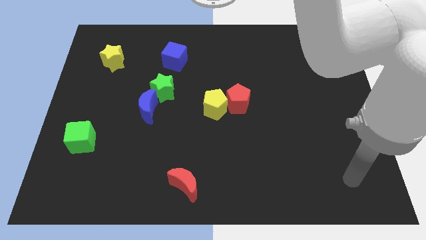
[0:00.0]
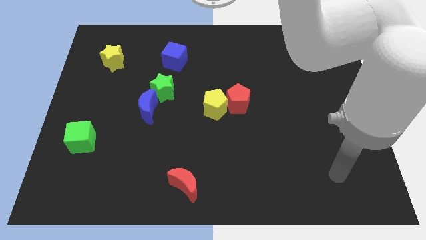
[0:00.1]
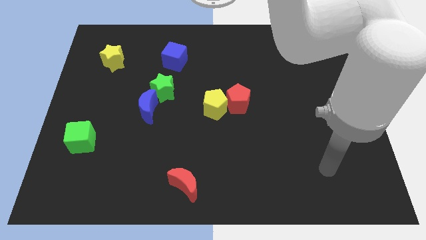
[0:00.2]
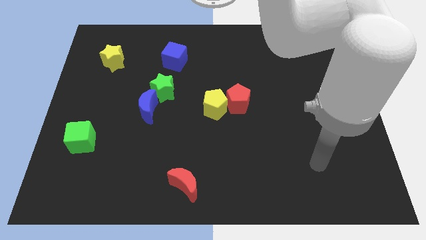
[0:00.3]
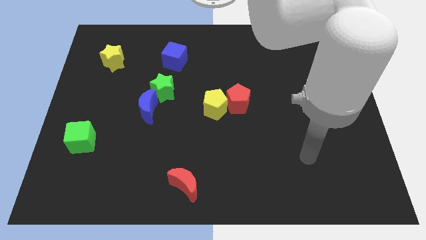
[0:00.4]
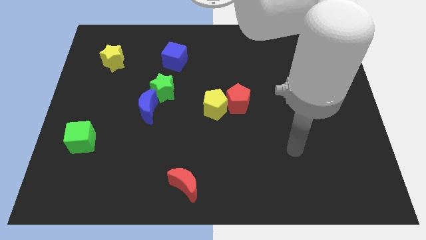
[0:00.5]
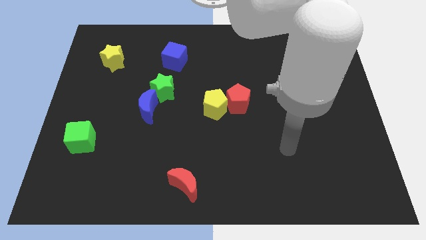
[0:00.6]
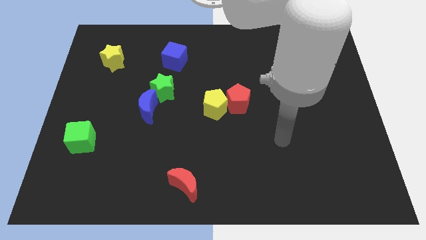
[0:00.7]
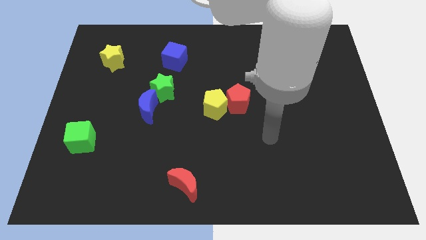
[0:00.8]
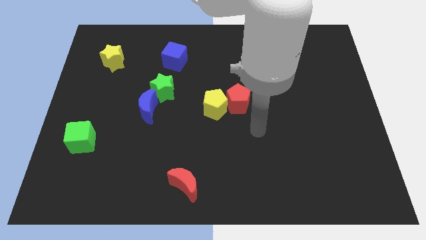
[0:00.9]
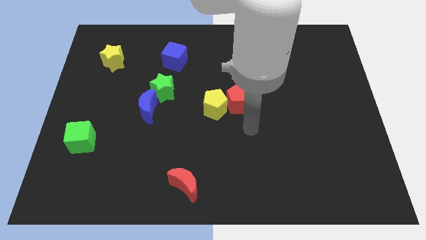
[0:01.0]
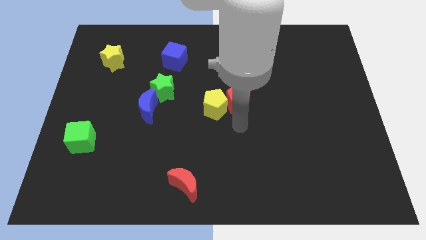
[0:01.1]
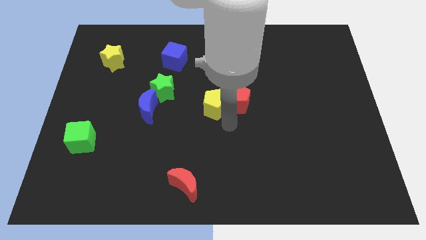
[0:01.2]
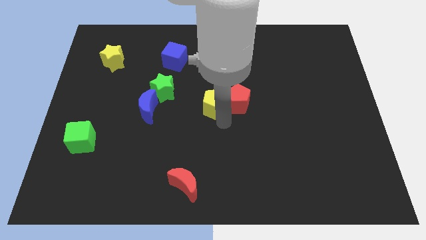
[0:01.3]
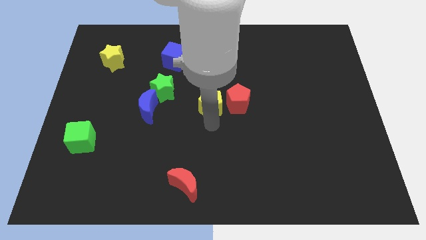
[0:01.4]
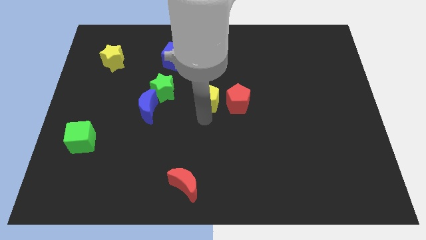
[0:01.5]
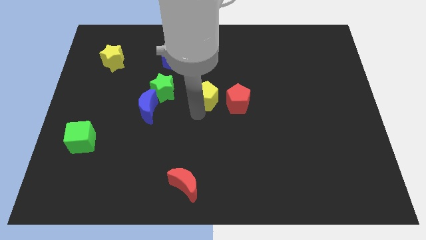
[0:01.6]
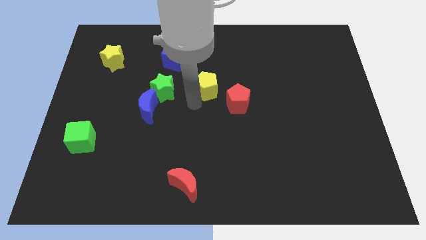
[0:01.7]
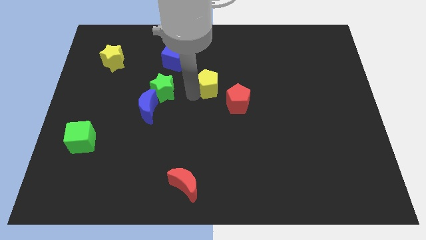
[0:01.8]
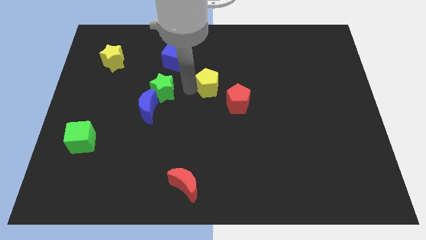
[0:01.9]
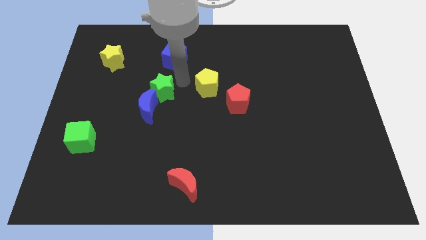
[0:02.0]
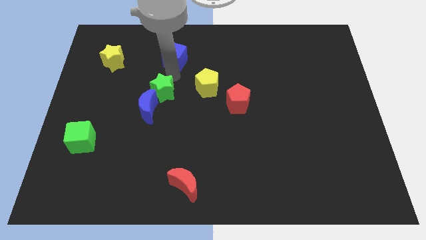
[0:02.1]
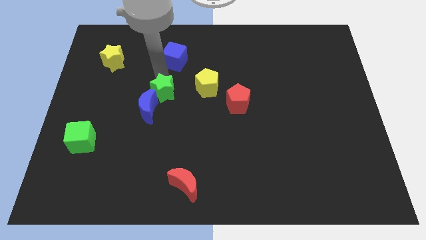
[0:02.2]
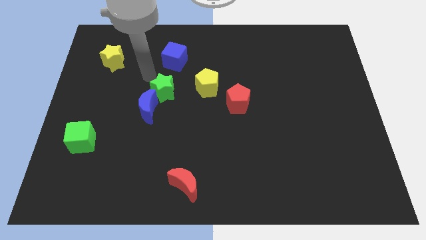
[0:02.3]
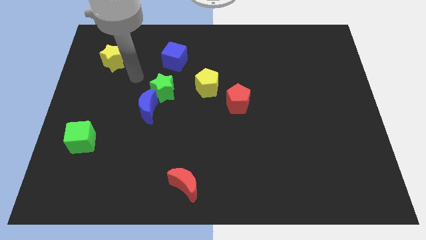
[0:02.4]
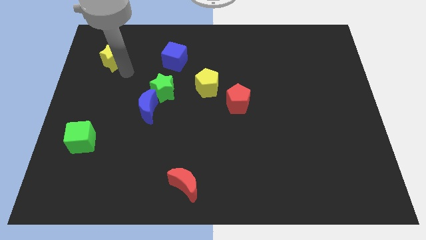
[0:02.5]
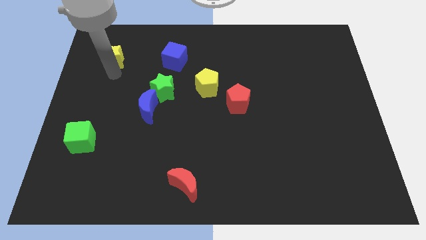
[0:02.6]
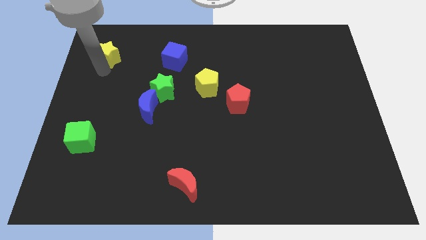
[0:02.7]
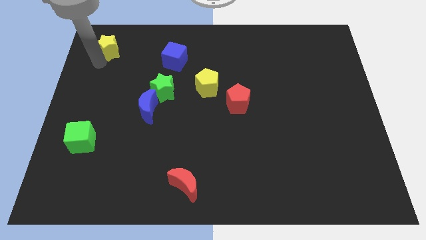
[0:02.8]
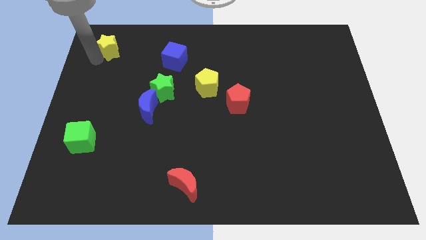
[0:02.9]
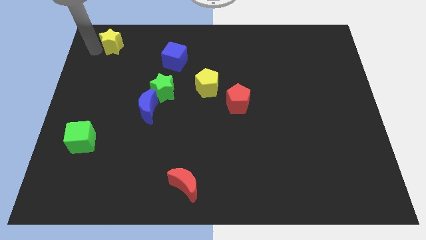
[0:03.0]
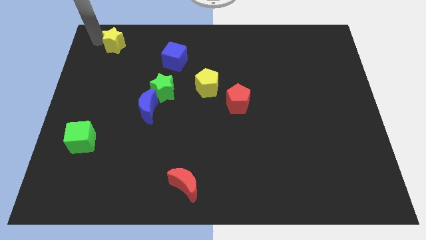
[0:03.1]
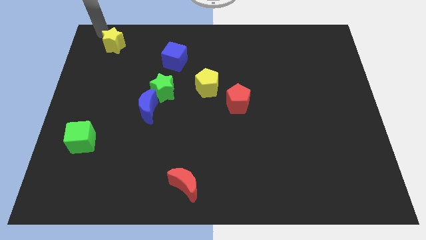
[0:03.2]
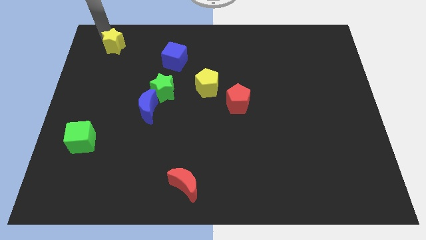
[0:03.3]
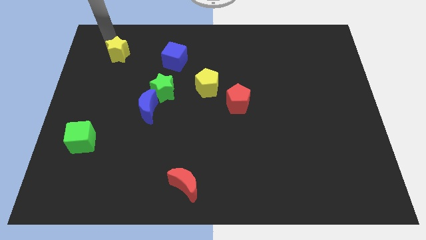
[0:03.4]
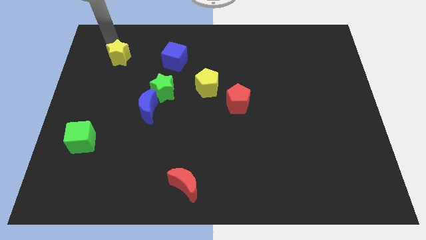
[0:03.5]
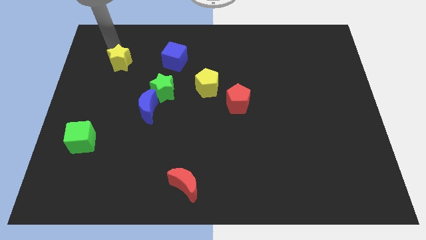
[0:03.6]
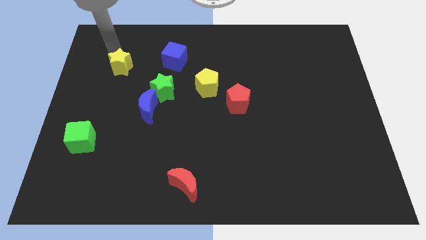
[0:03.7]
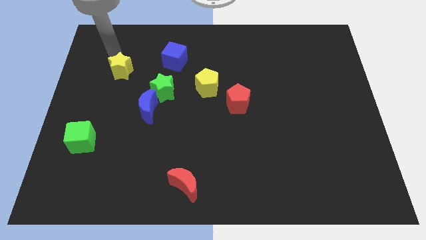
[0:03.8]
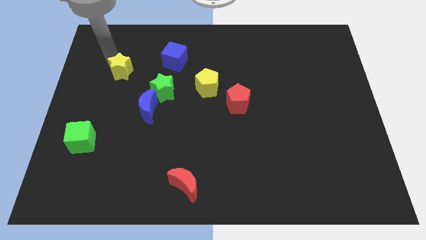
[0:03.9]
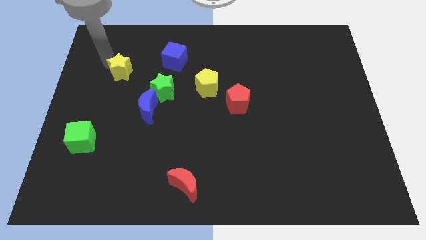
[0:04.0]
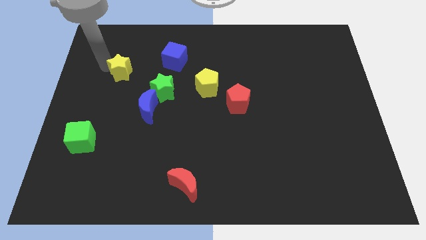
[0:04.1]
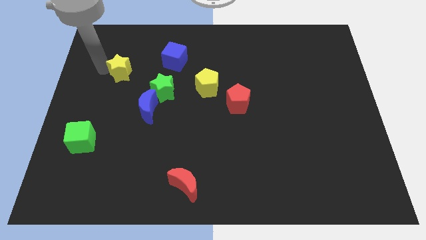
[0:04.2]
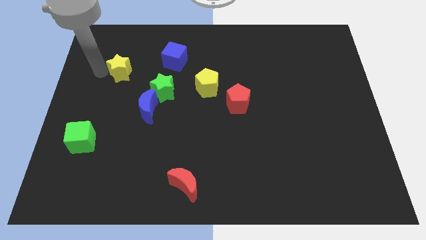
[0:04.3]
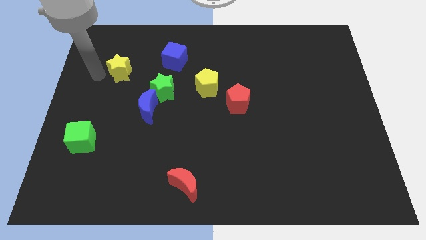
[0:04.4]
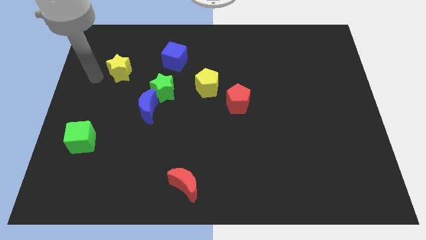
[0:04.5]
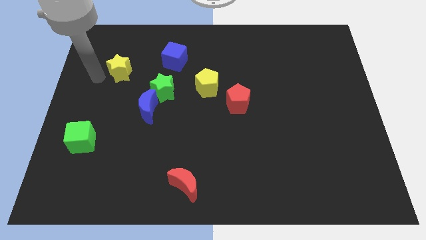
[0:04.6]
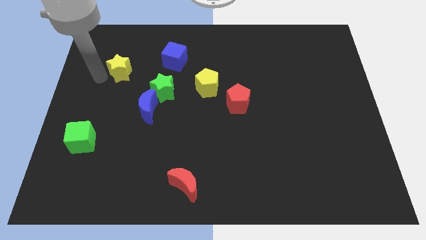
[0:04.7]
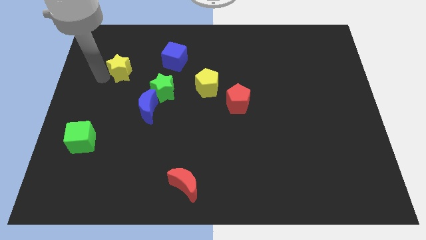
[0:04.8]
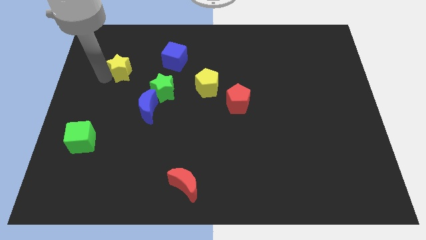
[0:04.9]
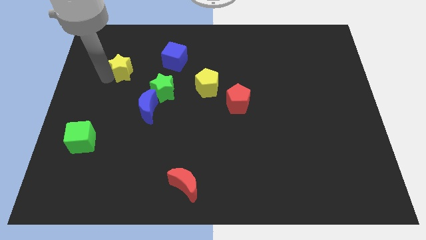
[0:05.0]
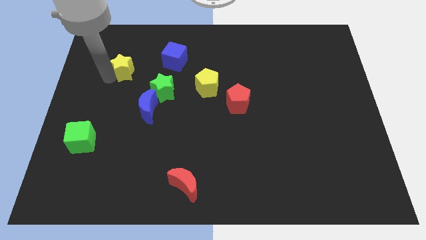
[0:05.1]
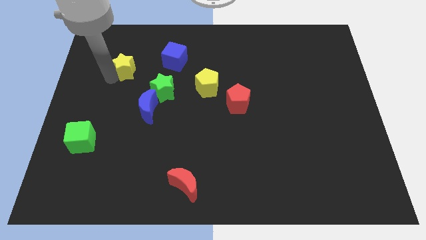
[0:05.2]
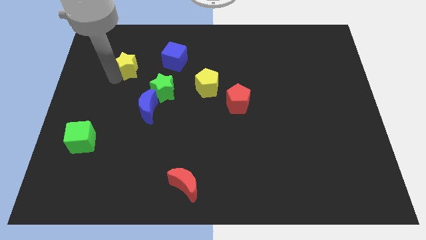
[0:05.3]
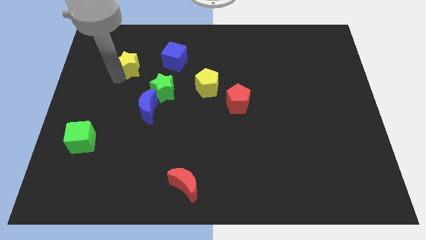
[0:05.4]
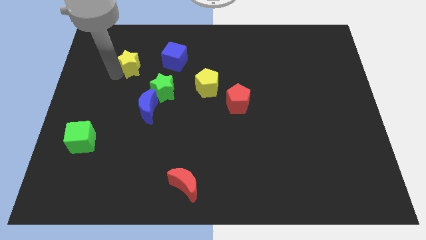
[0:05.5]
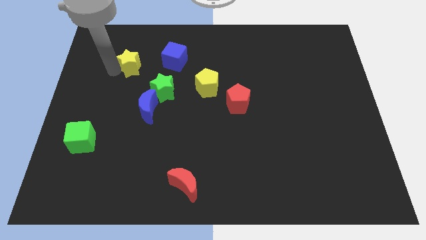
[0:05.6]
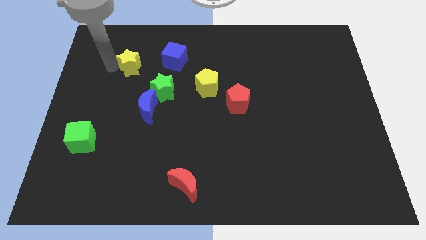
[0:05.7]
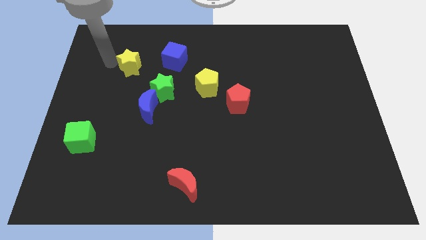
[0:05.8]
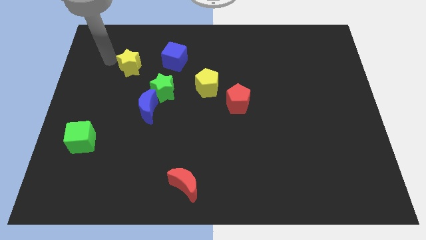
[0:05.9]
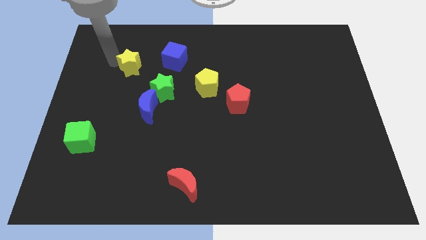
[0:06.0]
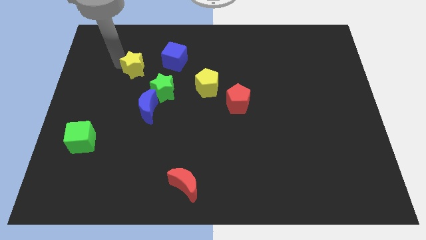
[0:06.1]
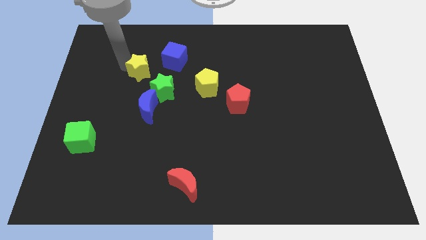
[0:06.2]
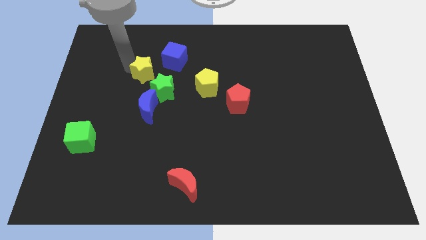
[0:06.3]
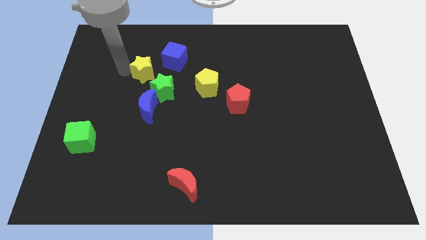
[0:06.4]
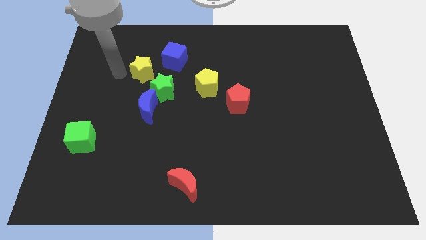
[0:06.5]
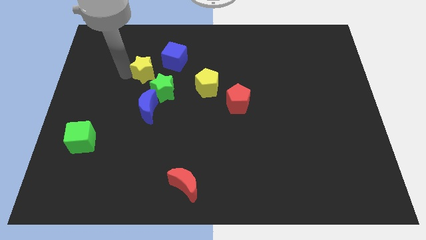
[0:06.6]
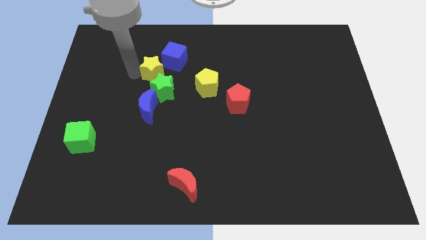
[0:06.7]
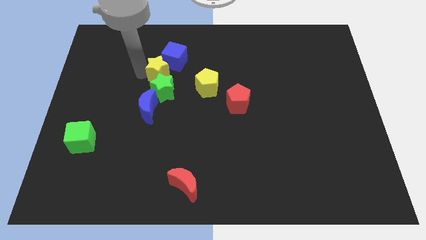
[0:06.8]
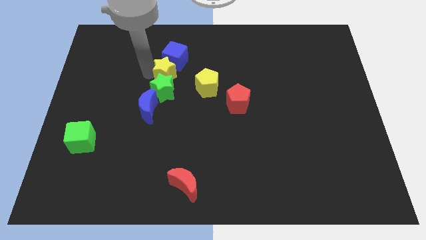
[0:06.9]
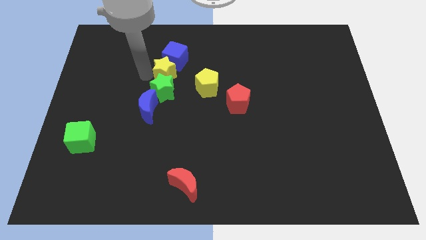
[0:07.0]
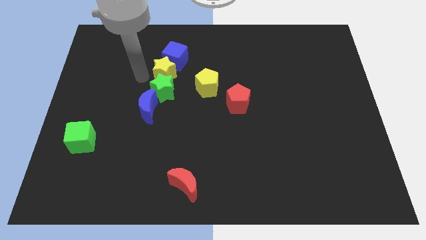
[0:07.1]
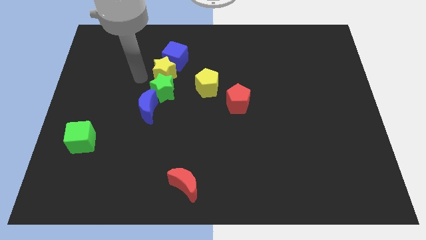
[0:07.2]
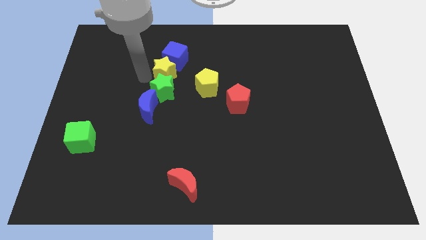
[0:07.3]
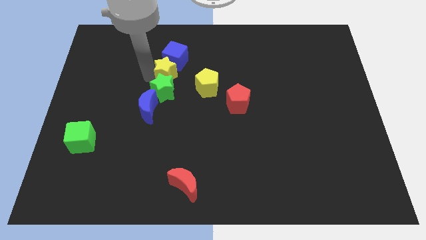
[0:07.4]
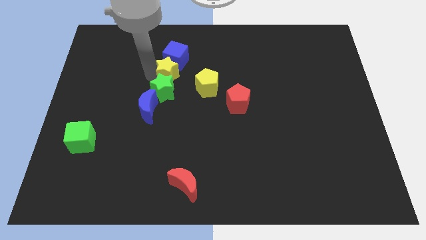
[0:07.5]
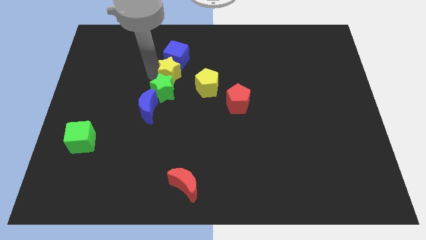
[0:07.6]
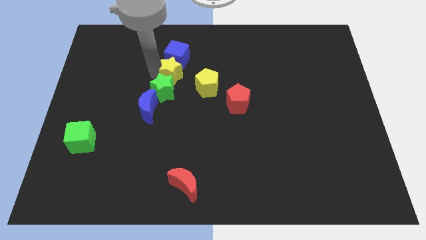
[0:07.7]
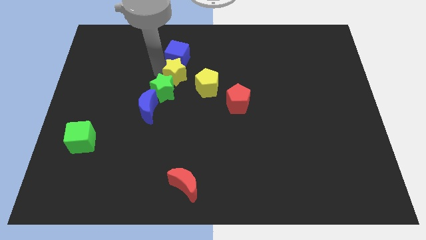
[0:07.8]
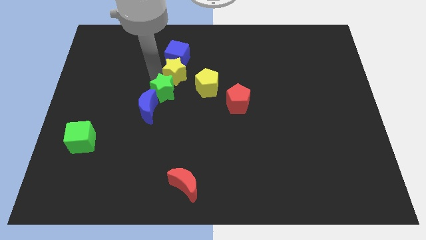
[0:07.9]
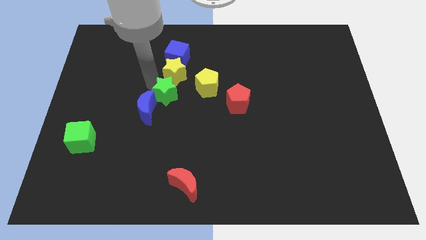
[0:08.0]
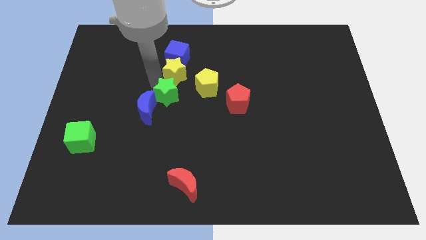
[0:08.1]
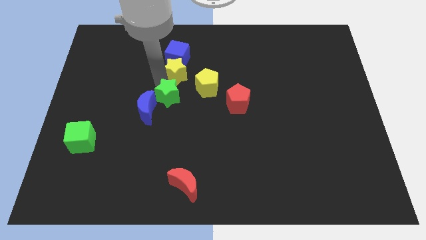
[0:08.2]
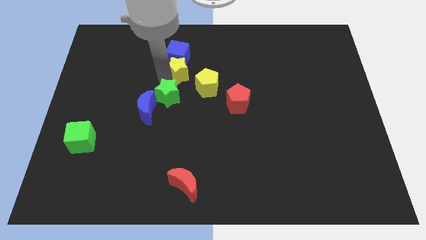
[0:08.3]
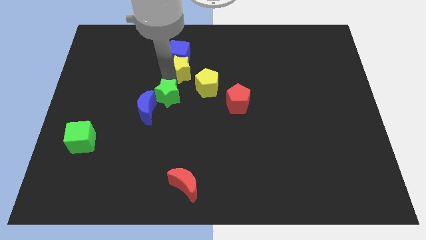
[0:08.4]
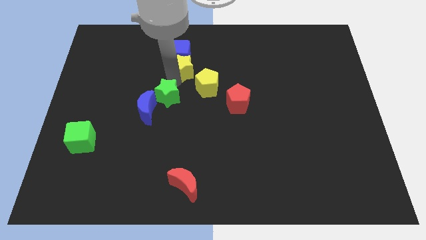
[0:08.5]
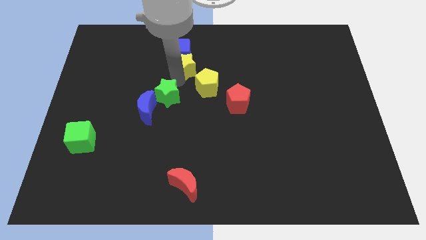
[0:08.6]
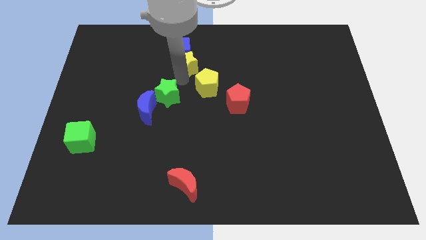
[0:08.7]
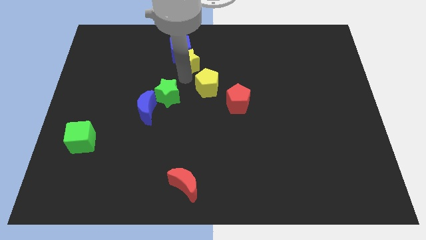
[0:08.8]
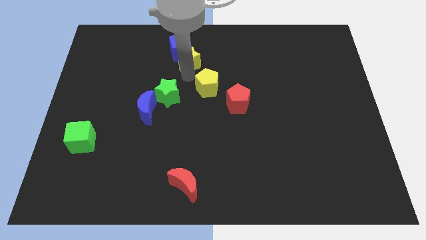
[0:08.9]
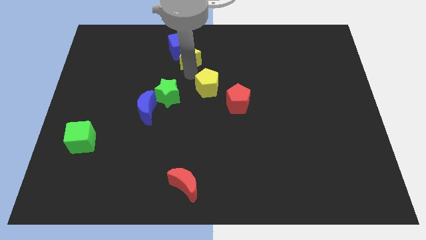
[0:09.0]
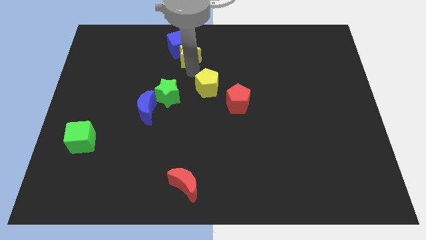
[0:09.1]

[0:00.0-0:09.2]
push the yellow star just right of the blue cube
